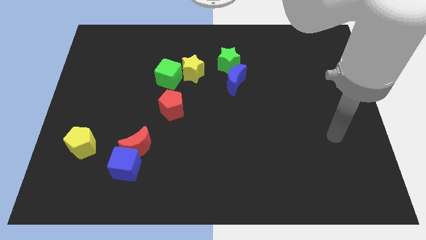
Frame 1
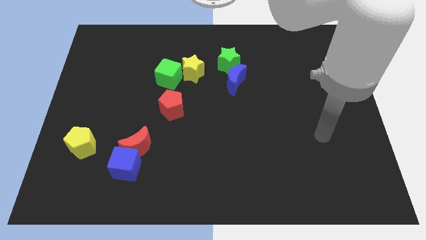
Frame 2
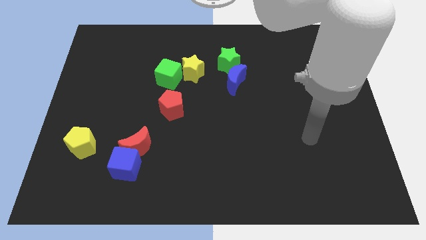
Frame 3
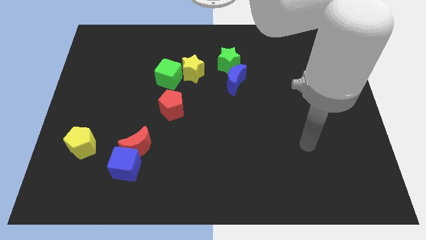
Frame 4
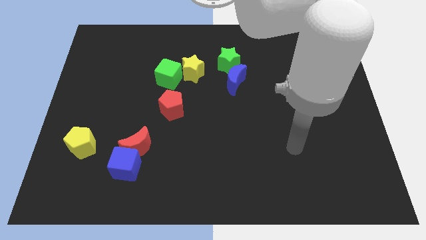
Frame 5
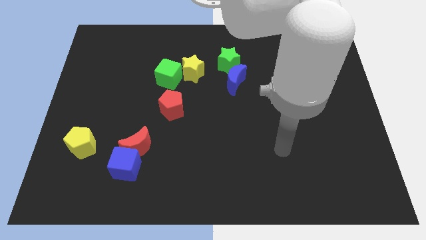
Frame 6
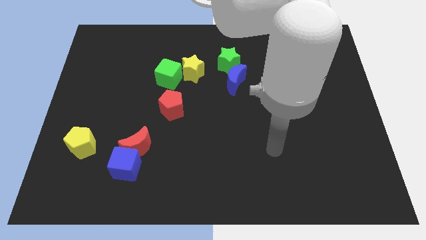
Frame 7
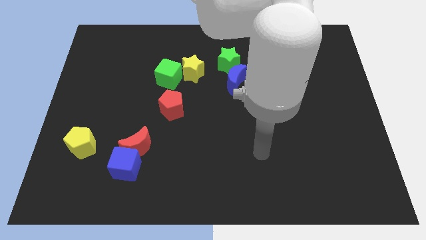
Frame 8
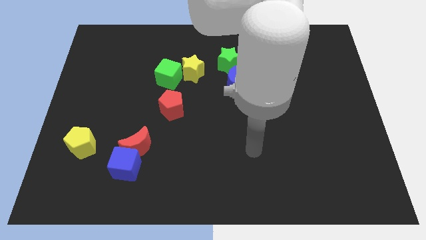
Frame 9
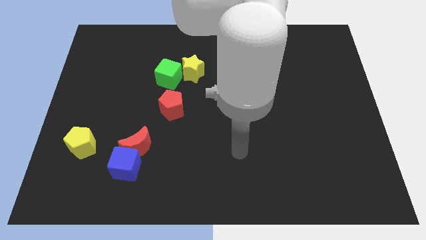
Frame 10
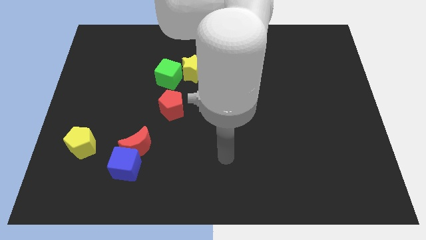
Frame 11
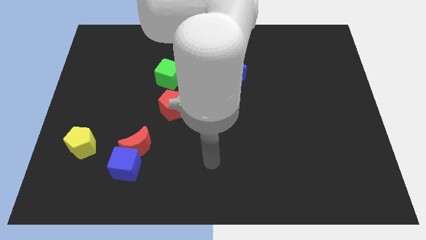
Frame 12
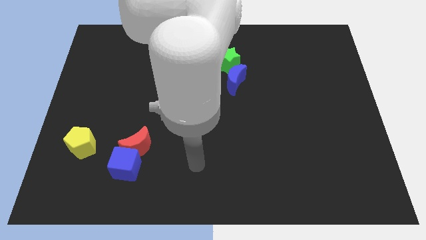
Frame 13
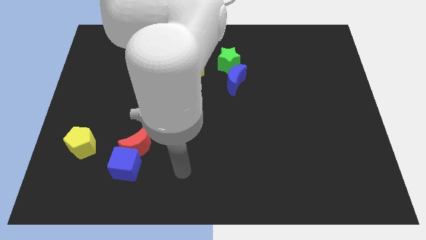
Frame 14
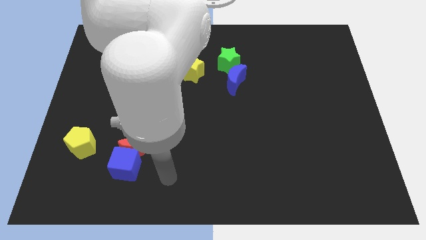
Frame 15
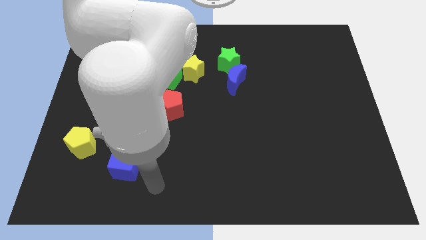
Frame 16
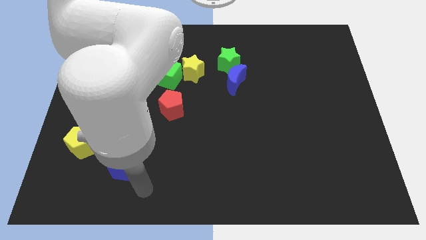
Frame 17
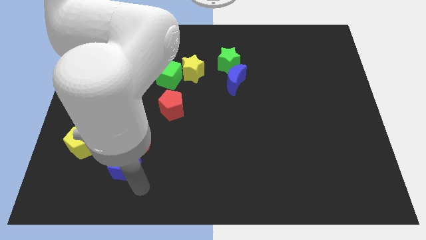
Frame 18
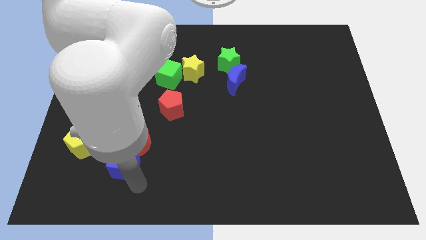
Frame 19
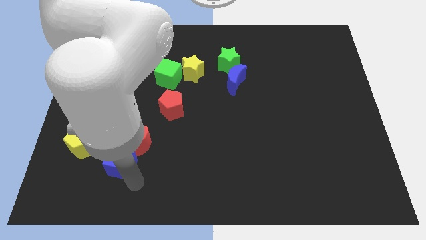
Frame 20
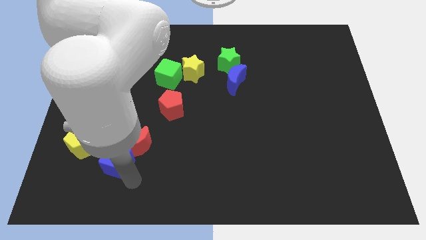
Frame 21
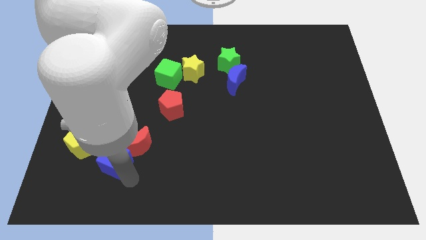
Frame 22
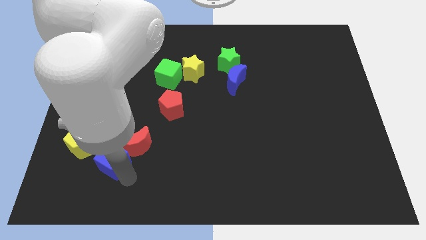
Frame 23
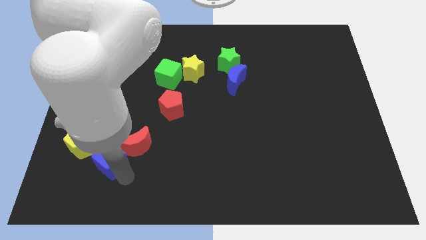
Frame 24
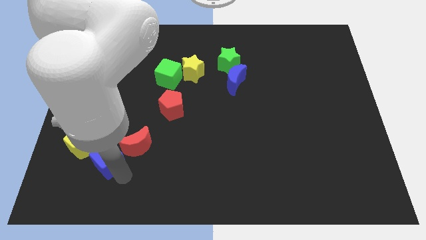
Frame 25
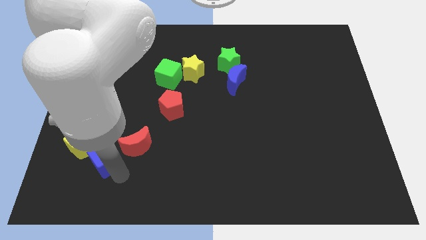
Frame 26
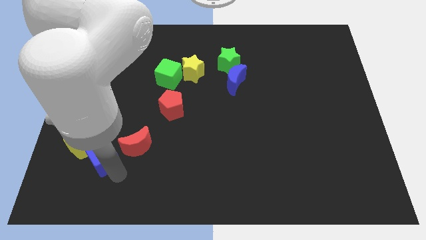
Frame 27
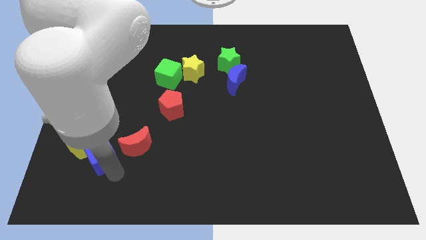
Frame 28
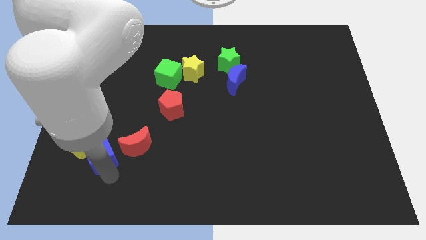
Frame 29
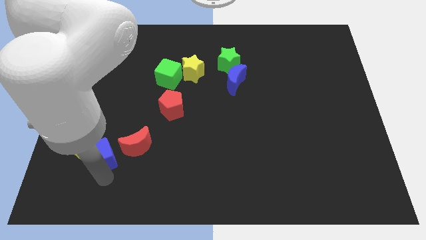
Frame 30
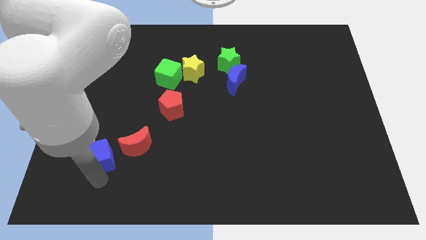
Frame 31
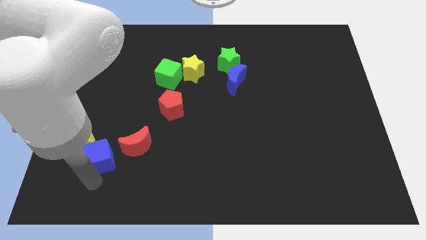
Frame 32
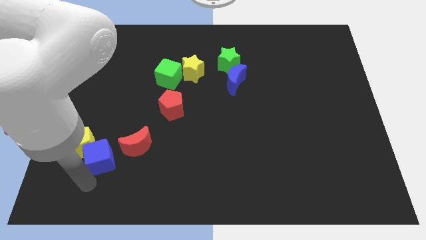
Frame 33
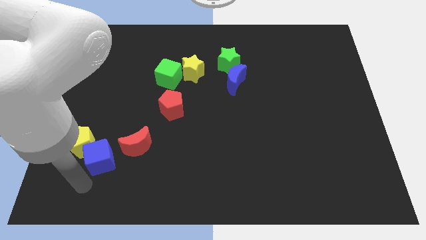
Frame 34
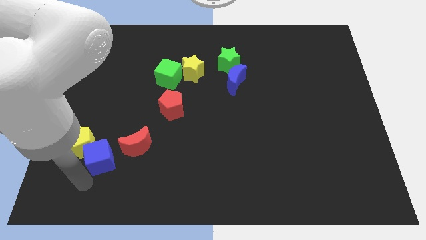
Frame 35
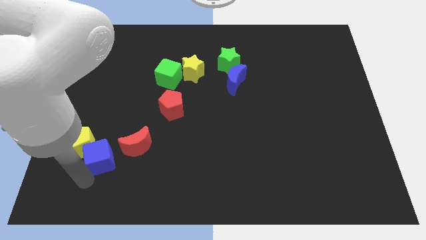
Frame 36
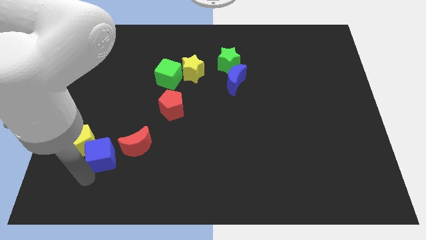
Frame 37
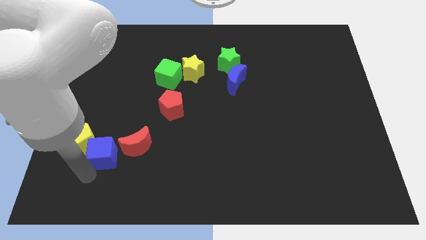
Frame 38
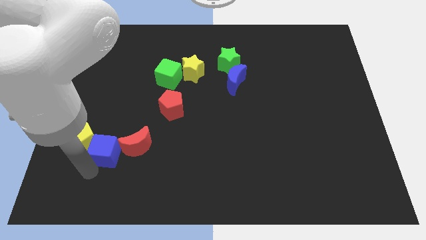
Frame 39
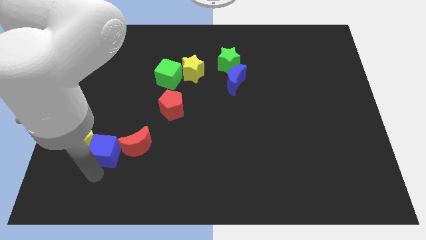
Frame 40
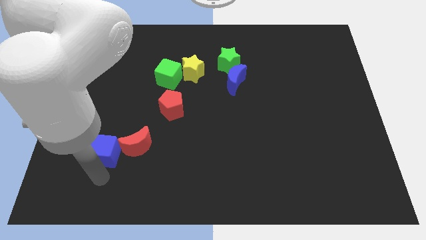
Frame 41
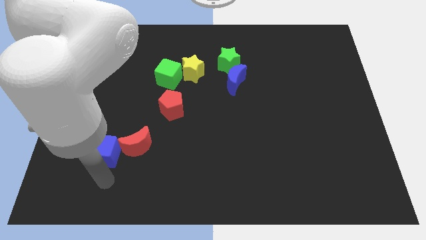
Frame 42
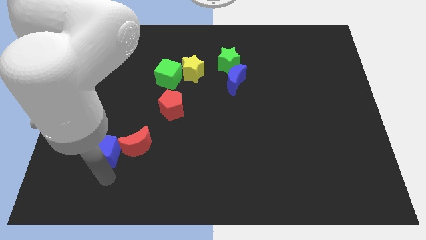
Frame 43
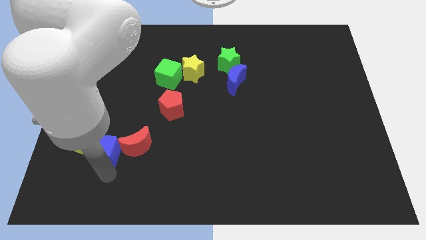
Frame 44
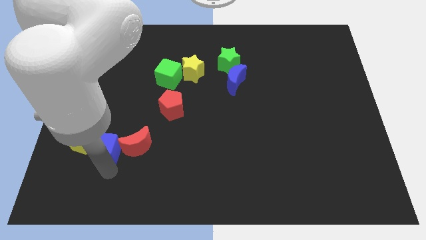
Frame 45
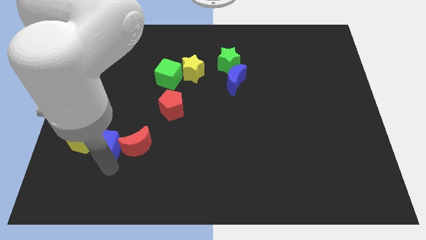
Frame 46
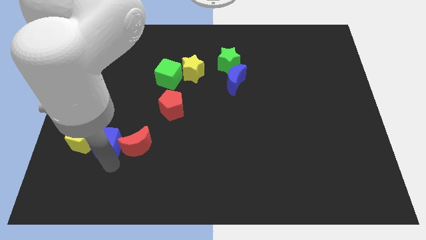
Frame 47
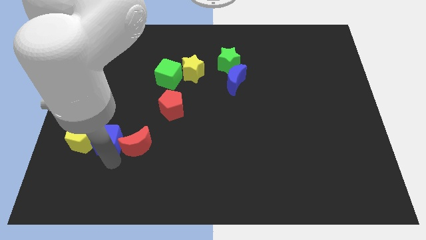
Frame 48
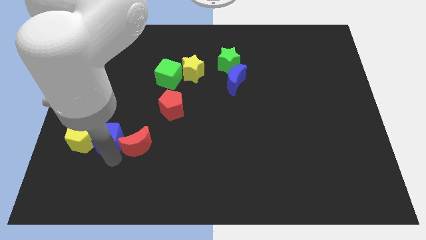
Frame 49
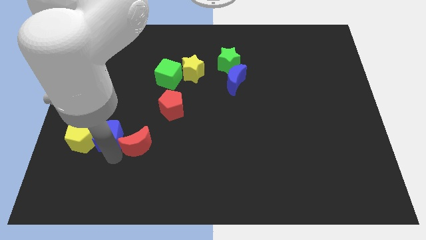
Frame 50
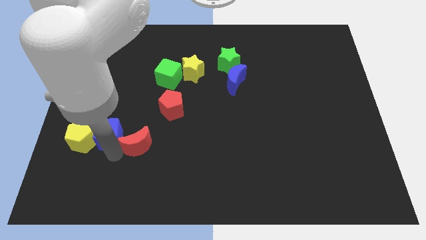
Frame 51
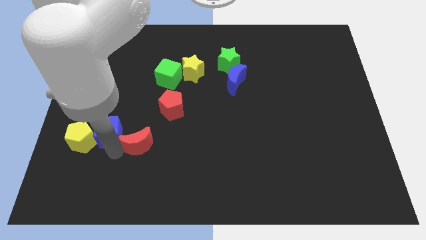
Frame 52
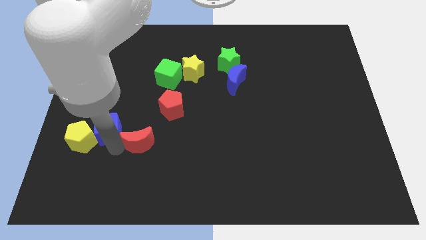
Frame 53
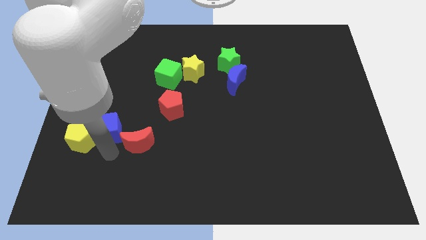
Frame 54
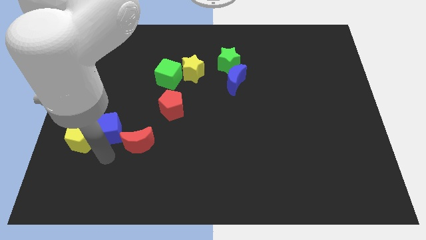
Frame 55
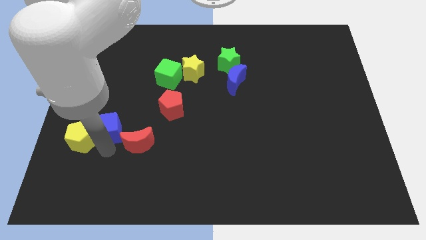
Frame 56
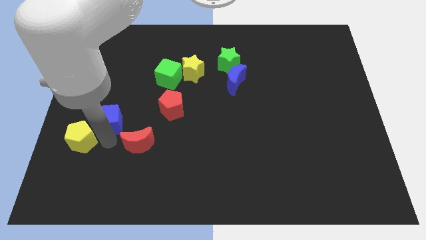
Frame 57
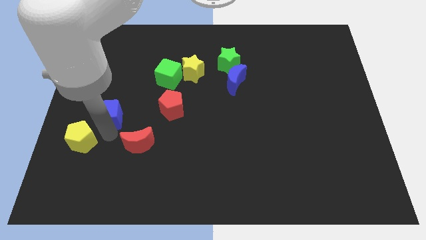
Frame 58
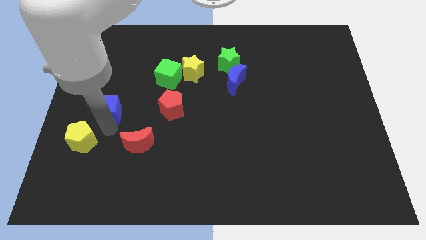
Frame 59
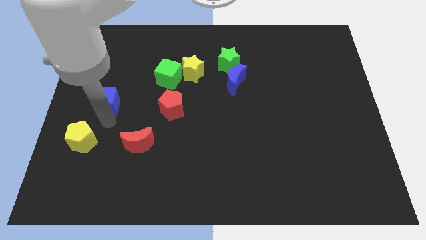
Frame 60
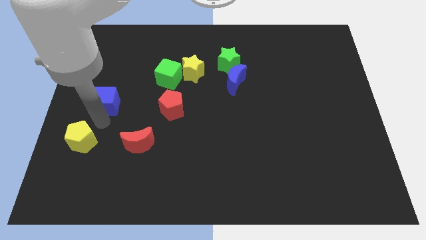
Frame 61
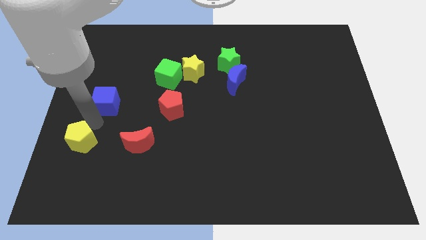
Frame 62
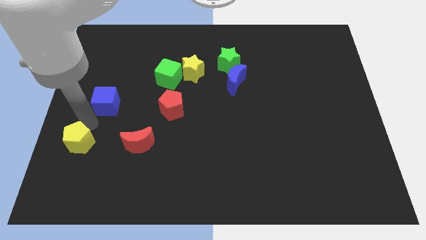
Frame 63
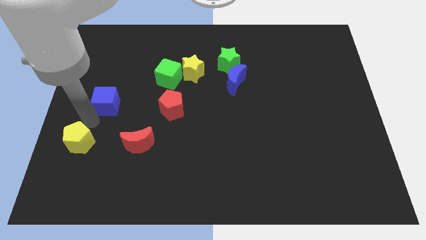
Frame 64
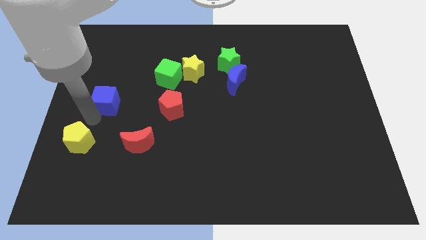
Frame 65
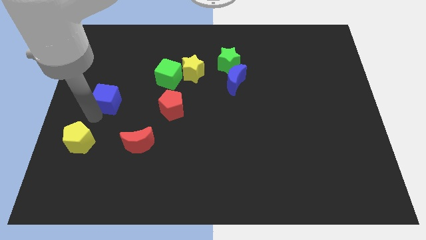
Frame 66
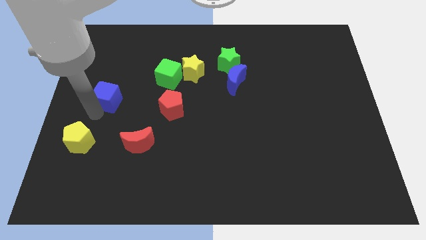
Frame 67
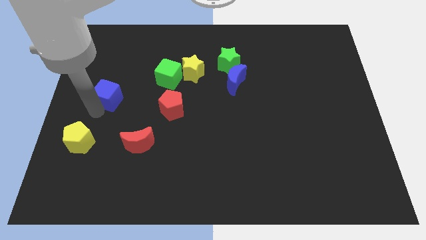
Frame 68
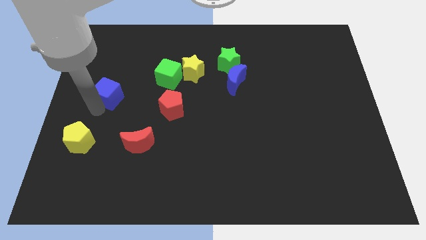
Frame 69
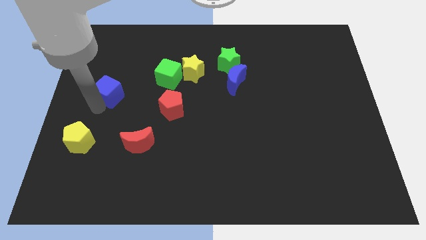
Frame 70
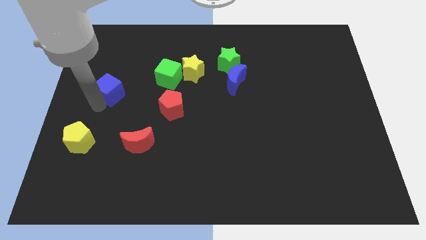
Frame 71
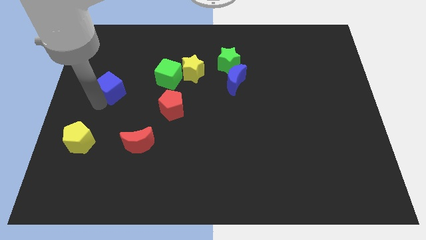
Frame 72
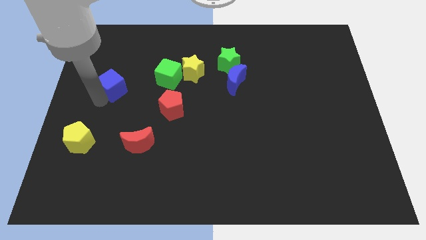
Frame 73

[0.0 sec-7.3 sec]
move the blue cube up

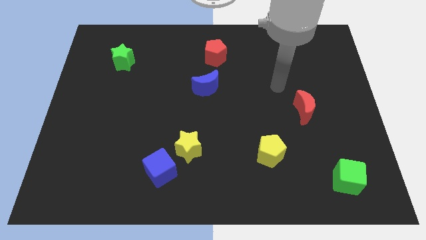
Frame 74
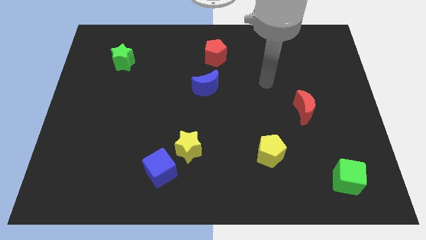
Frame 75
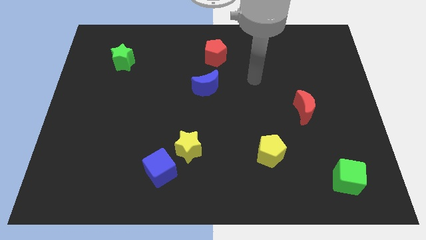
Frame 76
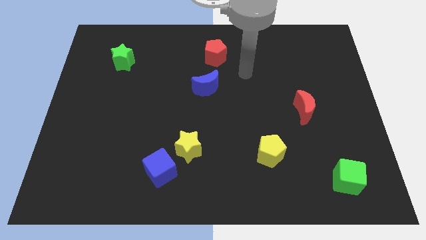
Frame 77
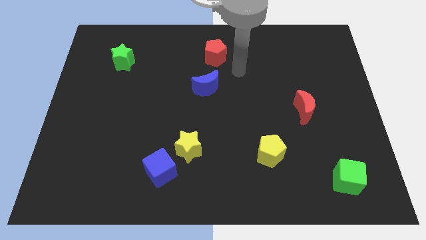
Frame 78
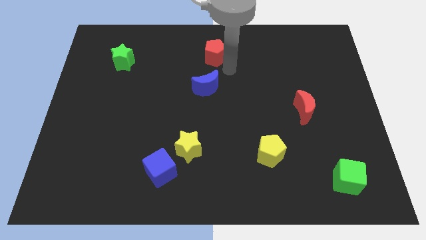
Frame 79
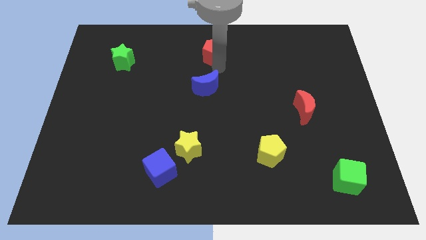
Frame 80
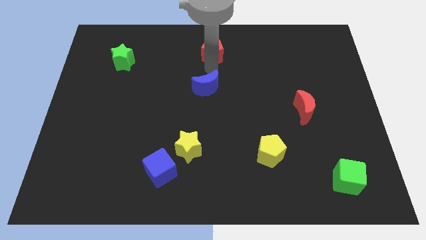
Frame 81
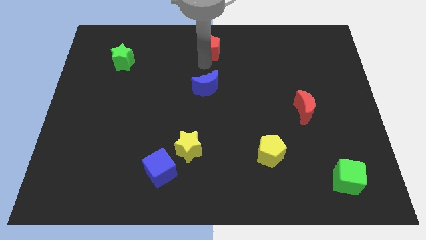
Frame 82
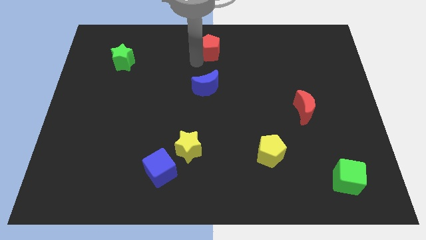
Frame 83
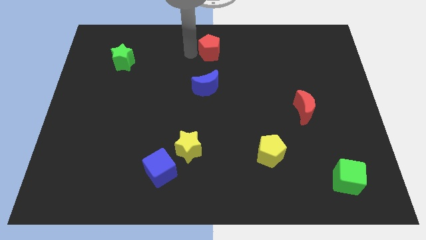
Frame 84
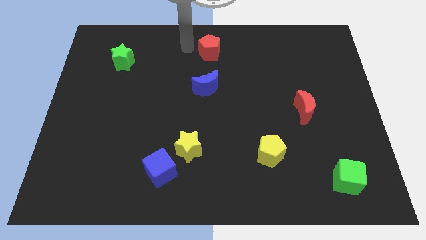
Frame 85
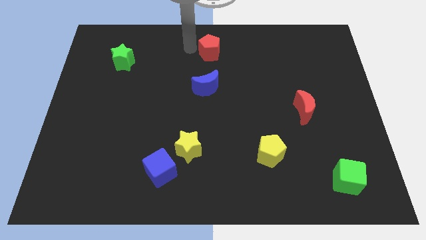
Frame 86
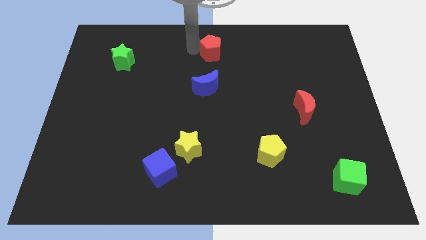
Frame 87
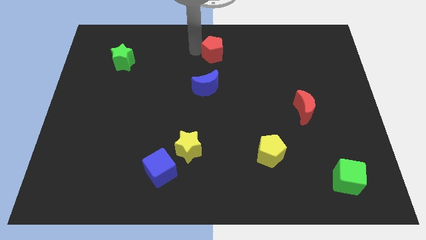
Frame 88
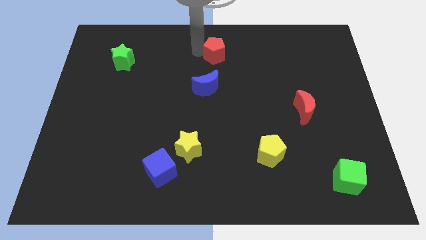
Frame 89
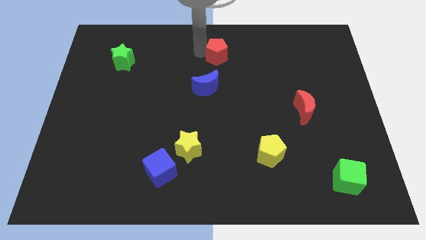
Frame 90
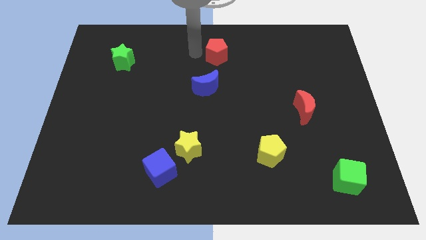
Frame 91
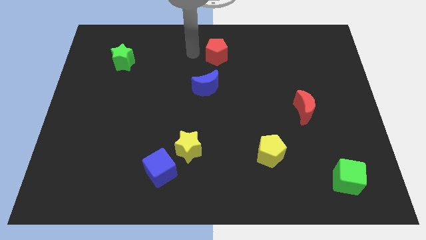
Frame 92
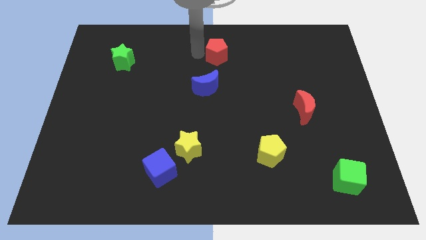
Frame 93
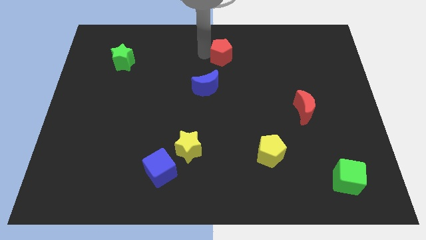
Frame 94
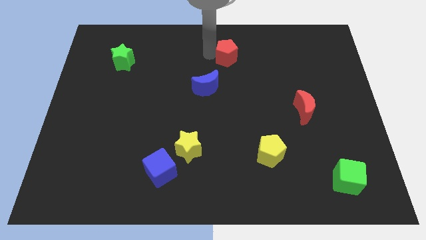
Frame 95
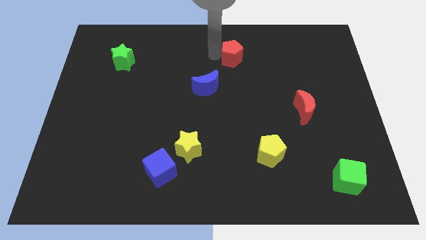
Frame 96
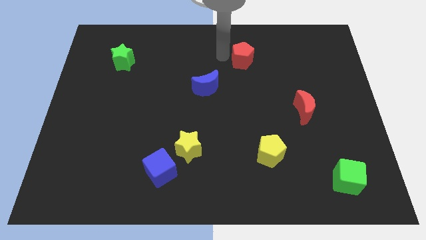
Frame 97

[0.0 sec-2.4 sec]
slightly move the red pentagon right
